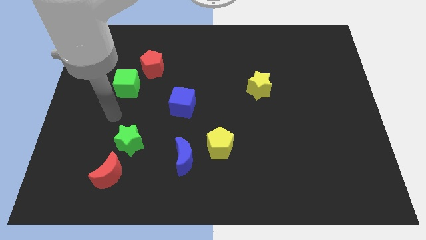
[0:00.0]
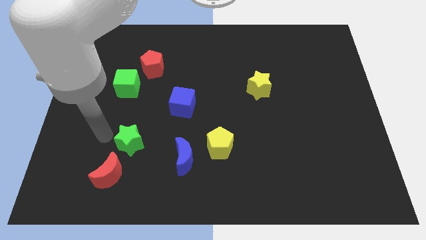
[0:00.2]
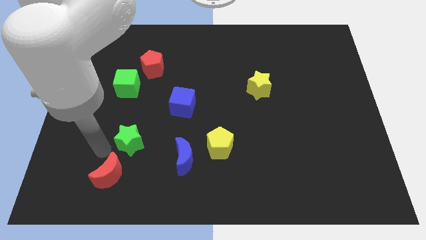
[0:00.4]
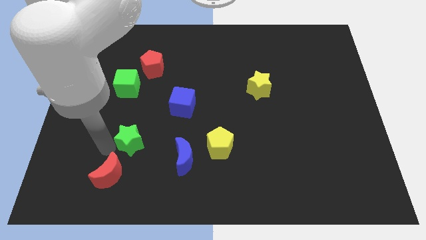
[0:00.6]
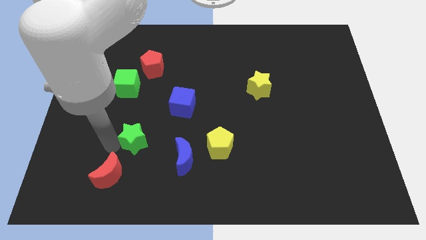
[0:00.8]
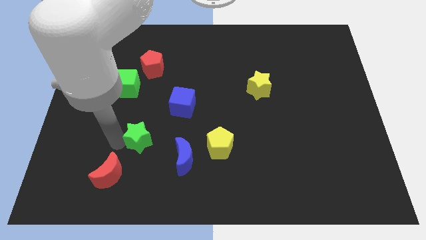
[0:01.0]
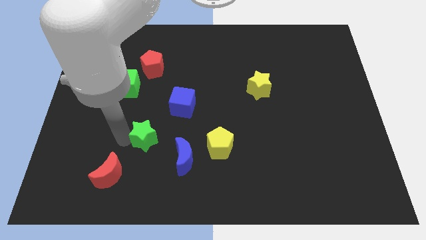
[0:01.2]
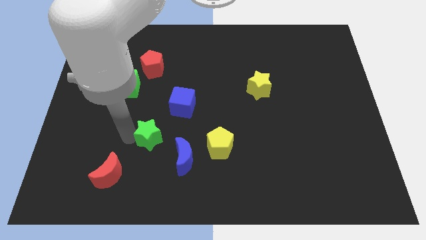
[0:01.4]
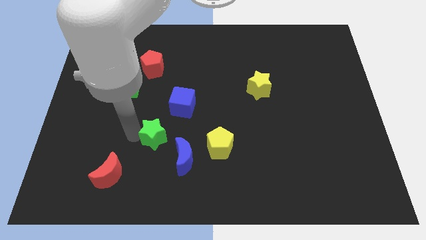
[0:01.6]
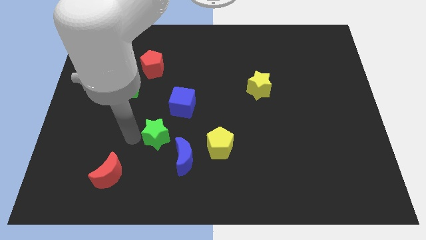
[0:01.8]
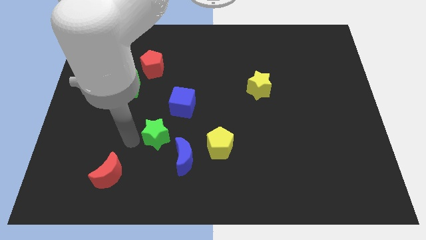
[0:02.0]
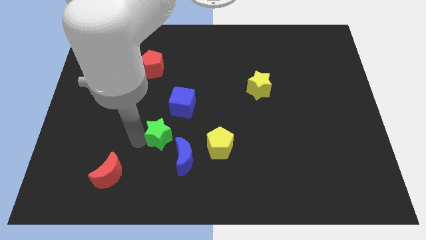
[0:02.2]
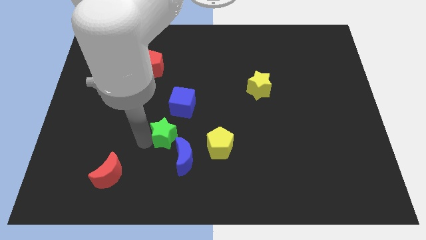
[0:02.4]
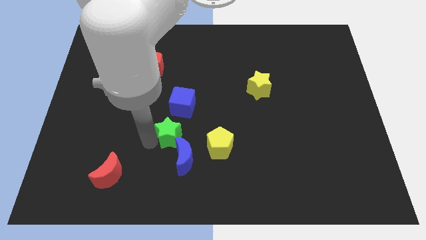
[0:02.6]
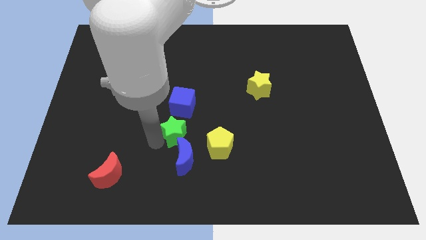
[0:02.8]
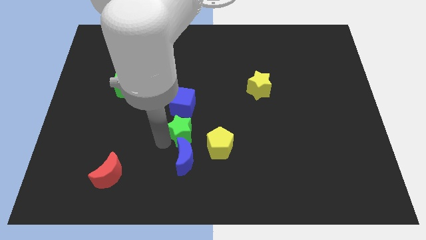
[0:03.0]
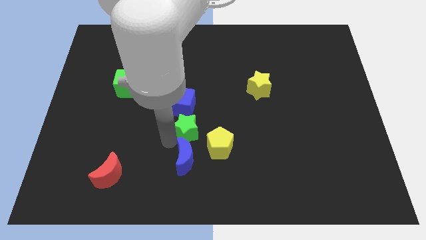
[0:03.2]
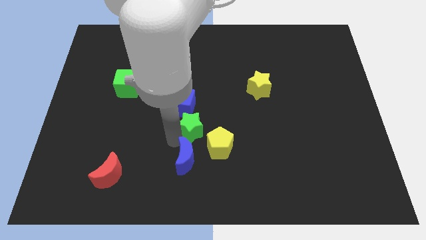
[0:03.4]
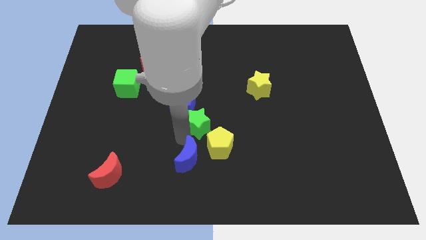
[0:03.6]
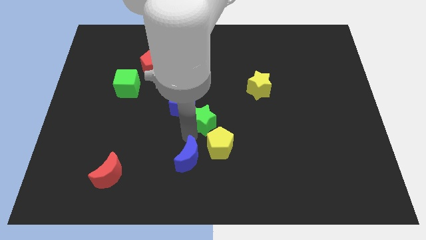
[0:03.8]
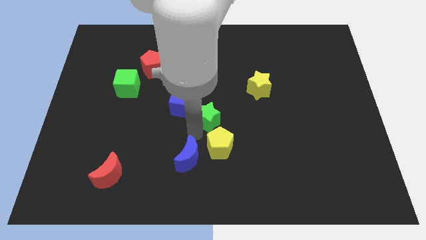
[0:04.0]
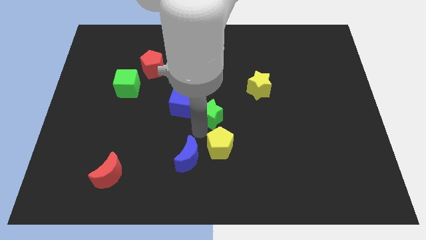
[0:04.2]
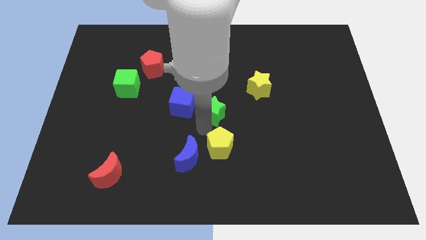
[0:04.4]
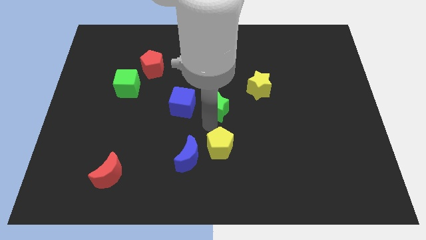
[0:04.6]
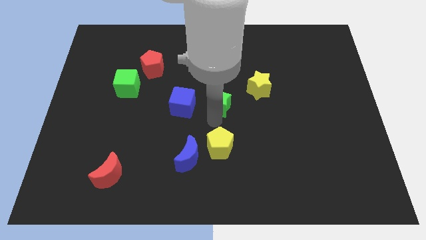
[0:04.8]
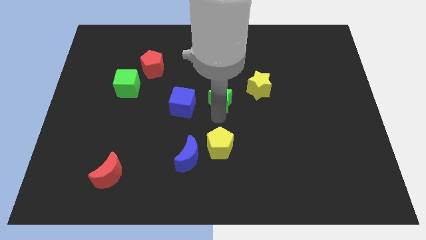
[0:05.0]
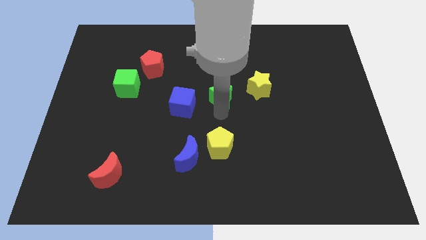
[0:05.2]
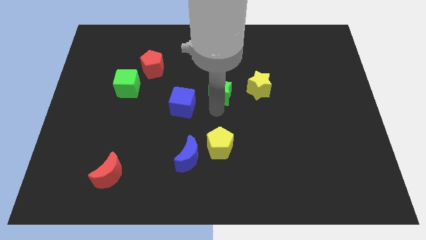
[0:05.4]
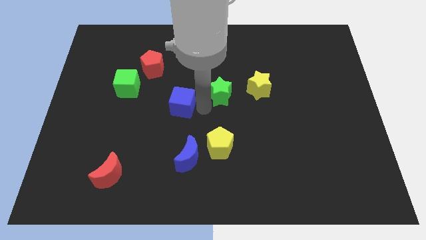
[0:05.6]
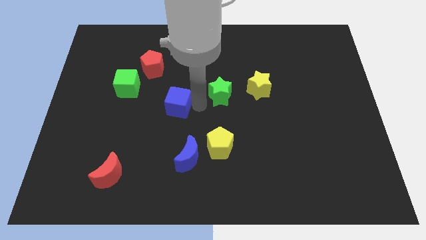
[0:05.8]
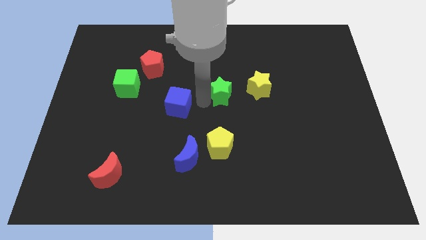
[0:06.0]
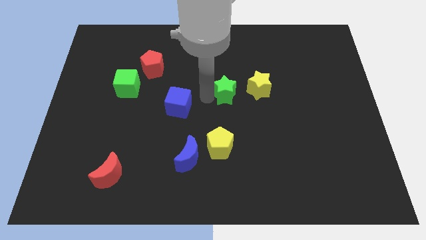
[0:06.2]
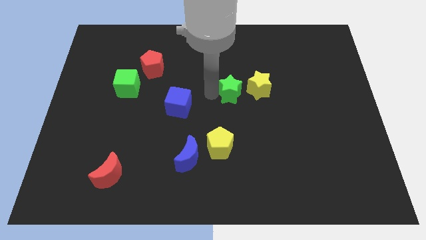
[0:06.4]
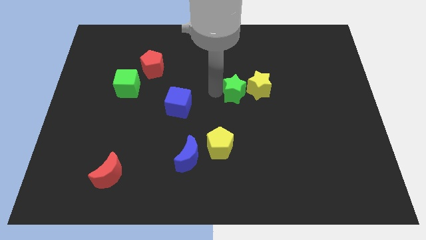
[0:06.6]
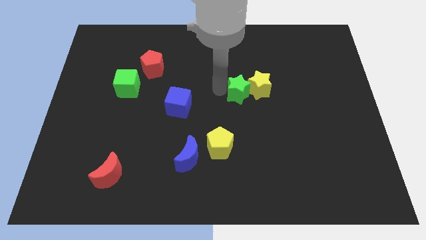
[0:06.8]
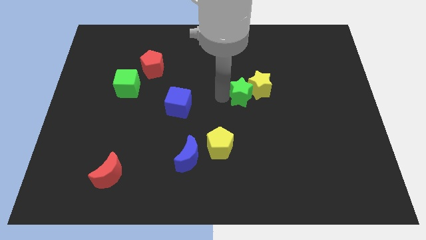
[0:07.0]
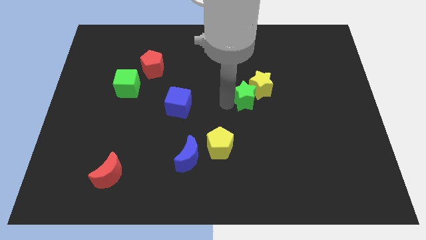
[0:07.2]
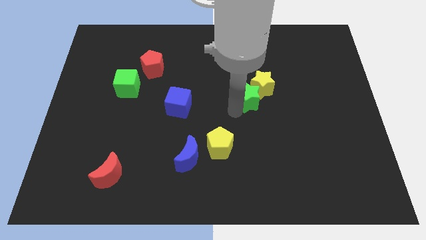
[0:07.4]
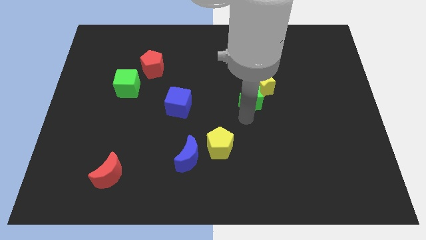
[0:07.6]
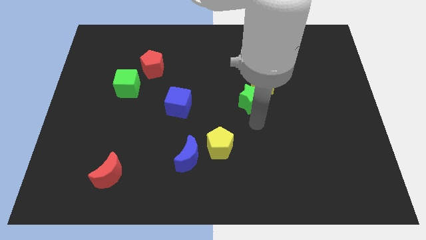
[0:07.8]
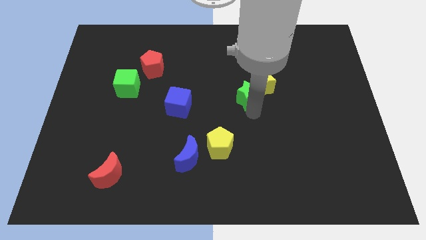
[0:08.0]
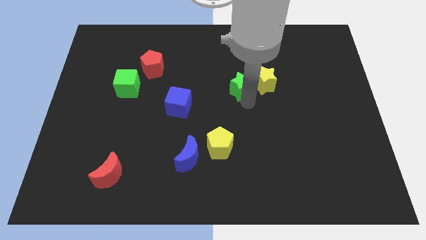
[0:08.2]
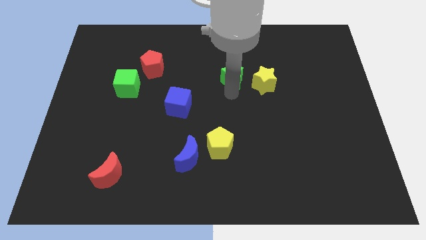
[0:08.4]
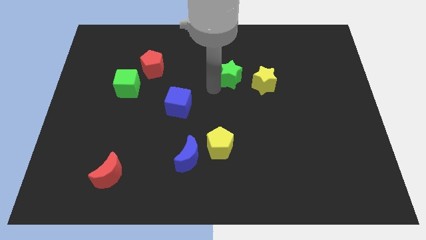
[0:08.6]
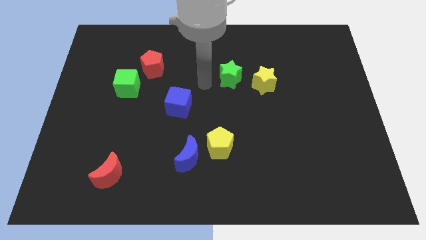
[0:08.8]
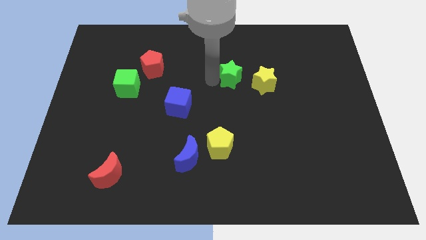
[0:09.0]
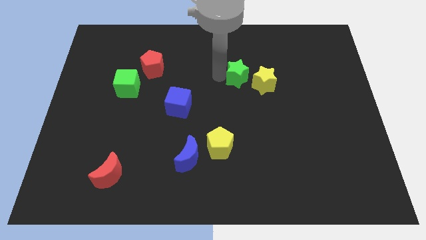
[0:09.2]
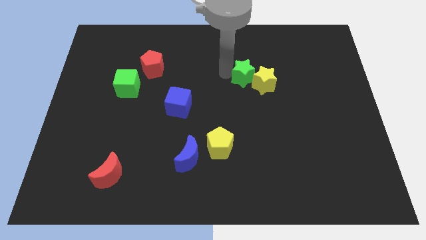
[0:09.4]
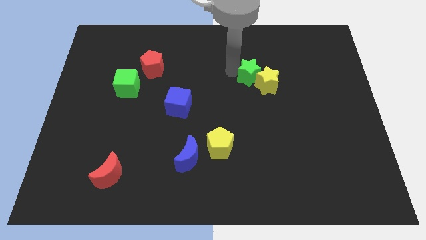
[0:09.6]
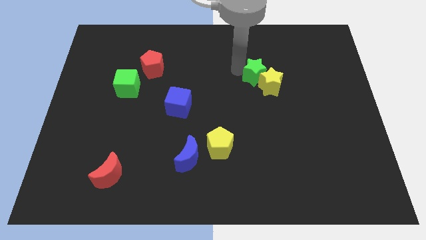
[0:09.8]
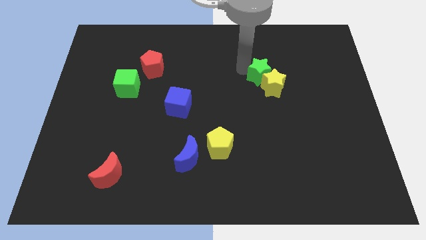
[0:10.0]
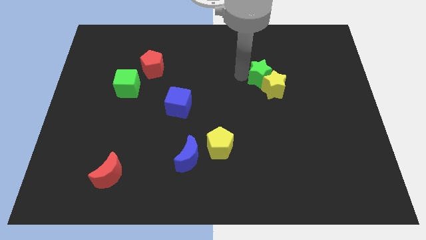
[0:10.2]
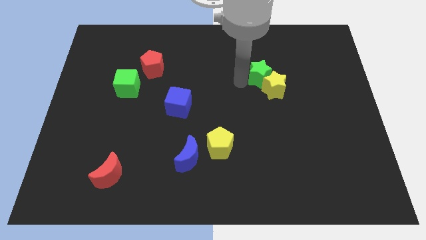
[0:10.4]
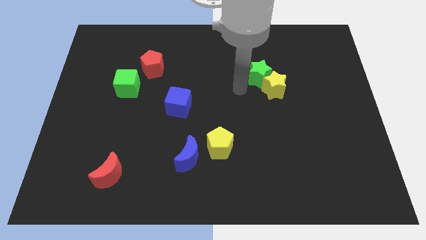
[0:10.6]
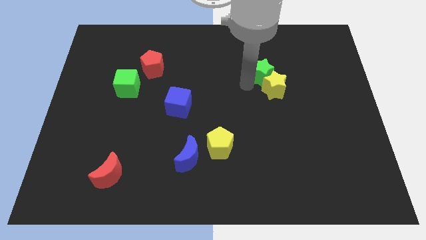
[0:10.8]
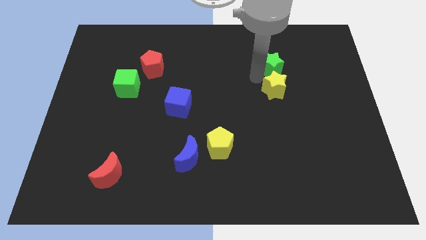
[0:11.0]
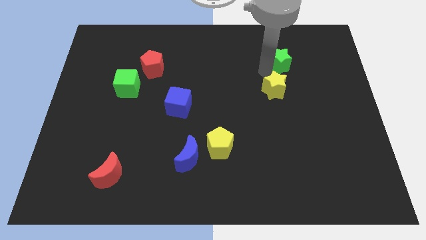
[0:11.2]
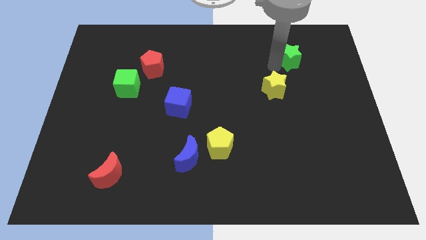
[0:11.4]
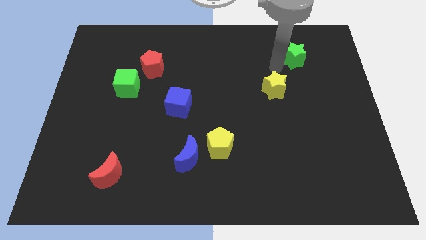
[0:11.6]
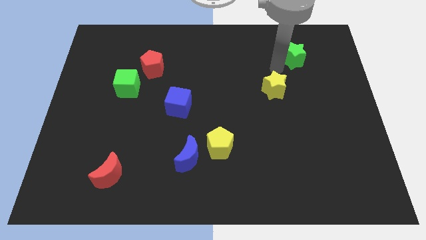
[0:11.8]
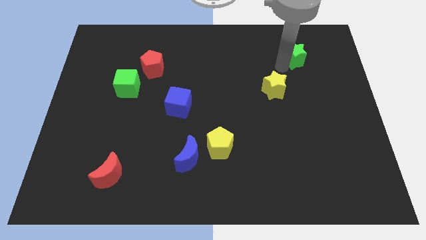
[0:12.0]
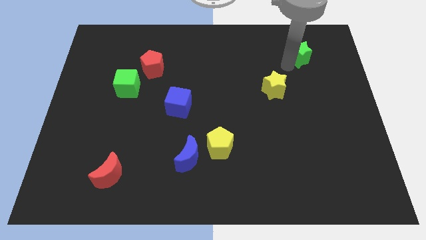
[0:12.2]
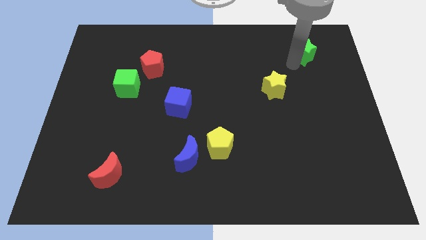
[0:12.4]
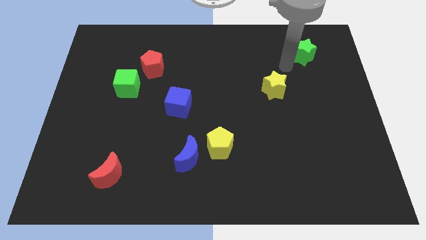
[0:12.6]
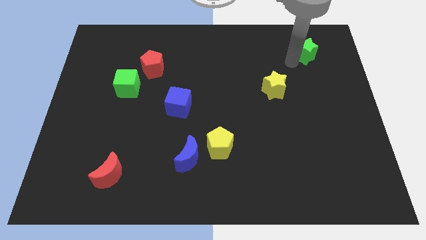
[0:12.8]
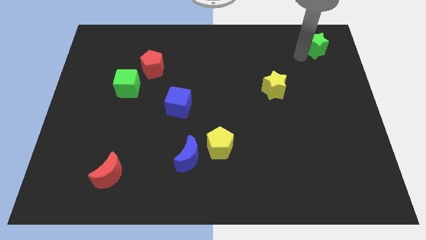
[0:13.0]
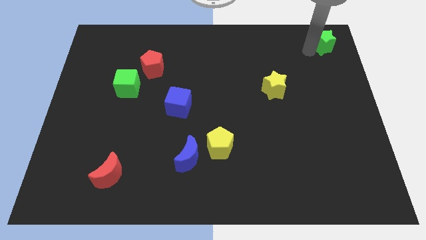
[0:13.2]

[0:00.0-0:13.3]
put the green star to the top right of the board

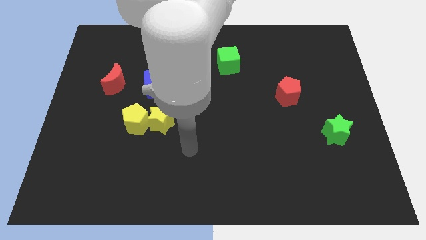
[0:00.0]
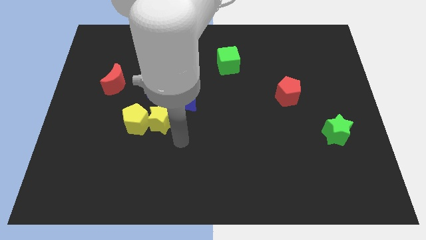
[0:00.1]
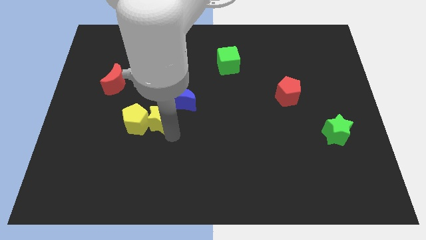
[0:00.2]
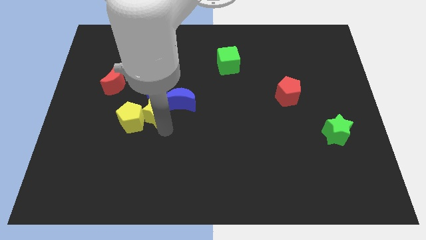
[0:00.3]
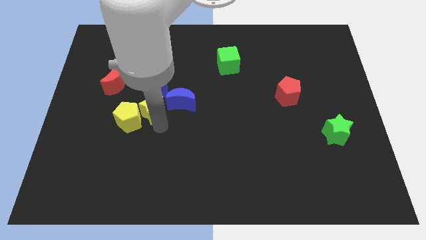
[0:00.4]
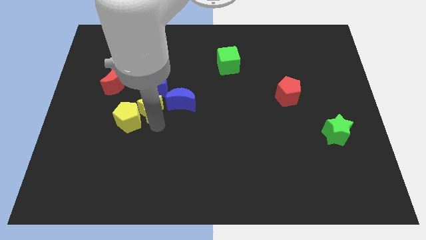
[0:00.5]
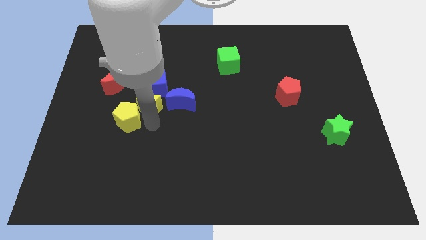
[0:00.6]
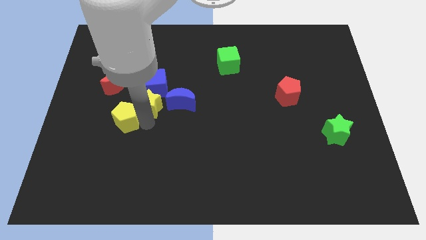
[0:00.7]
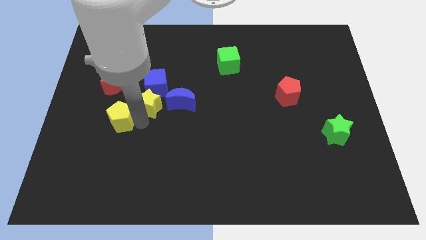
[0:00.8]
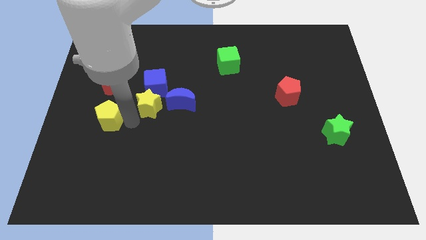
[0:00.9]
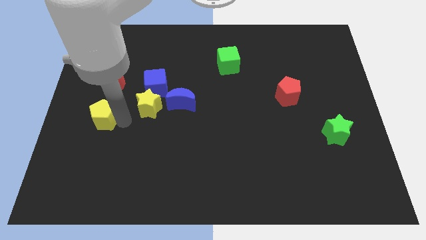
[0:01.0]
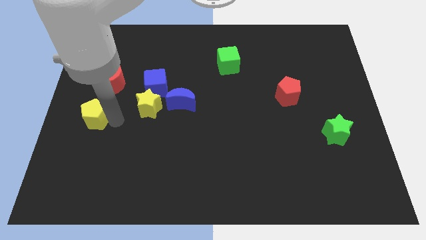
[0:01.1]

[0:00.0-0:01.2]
put the yellow pentagon to the left side of the board
